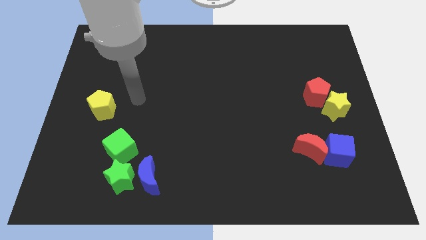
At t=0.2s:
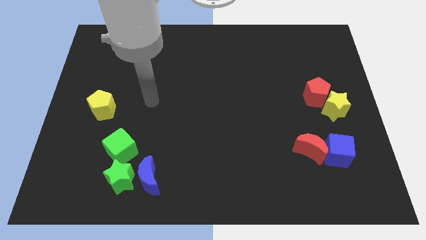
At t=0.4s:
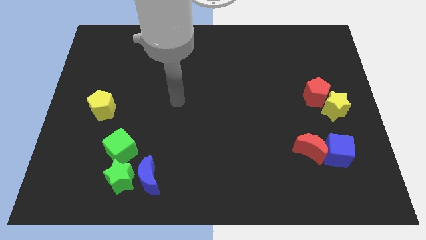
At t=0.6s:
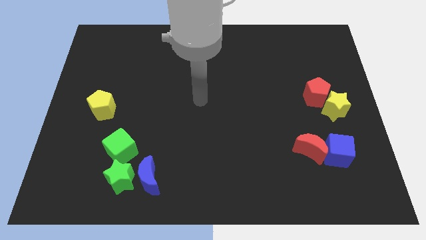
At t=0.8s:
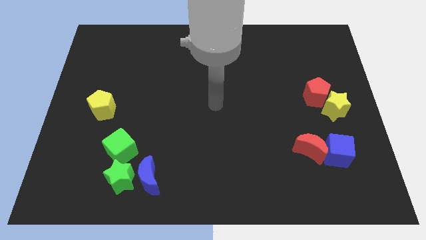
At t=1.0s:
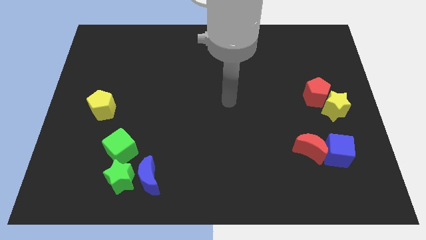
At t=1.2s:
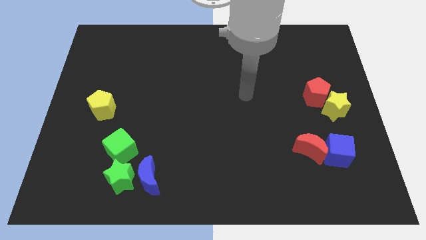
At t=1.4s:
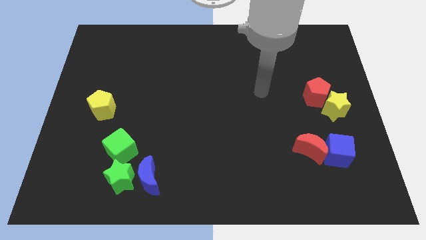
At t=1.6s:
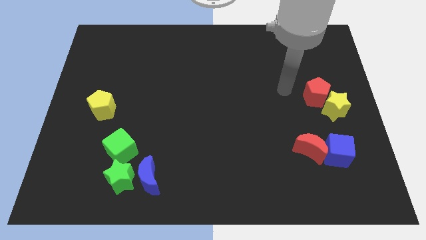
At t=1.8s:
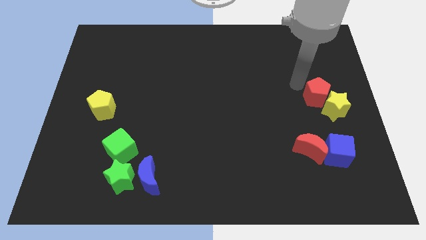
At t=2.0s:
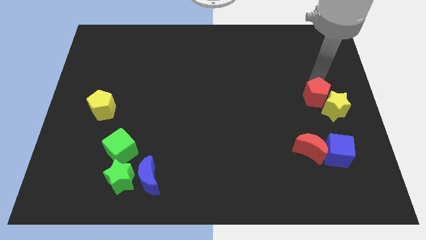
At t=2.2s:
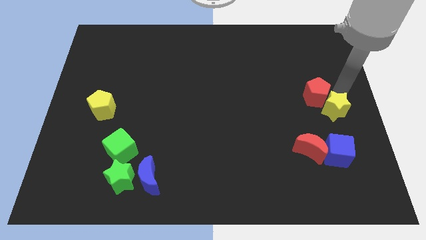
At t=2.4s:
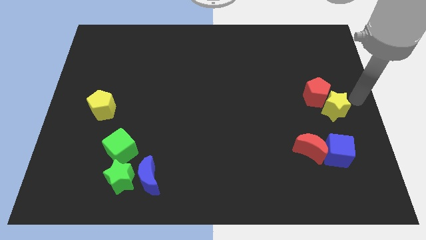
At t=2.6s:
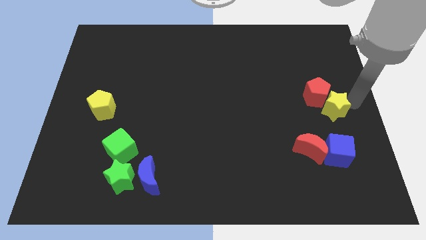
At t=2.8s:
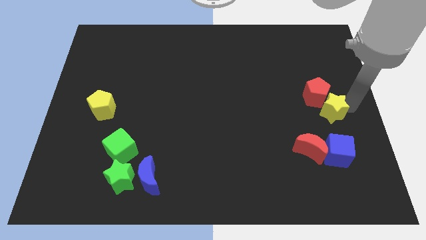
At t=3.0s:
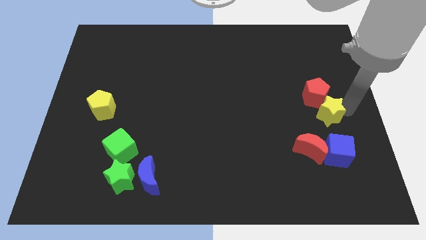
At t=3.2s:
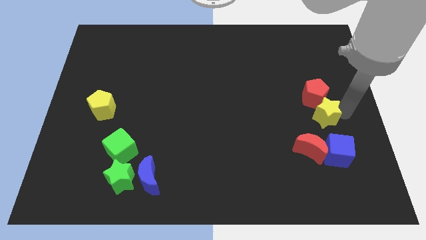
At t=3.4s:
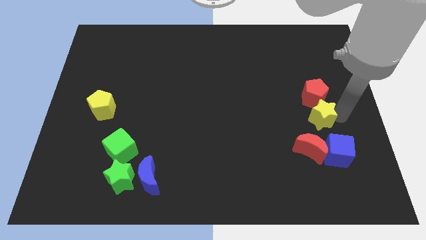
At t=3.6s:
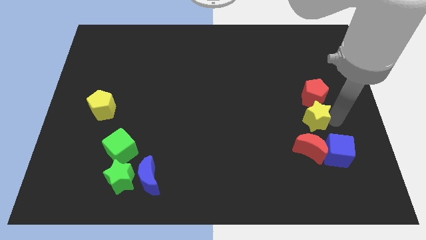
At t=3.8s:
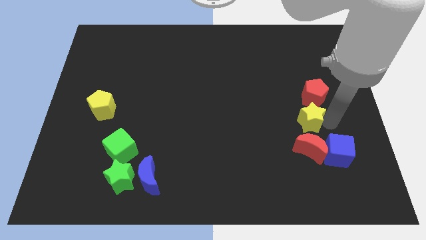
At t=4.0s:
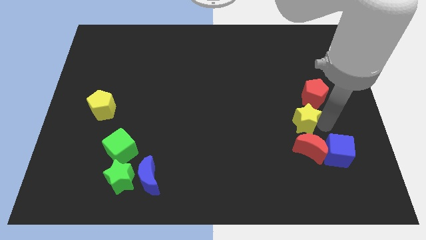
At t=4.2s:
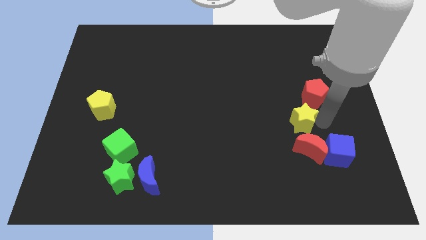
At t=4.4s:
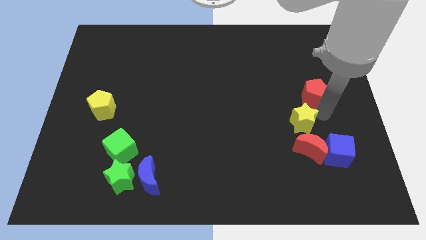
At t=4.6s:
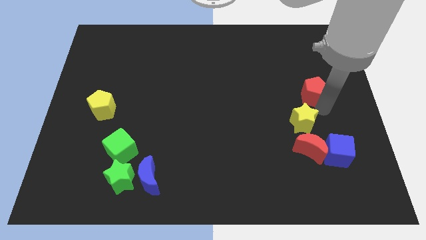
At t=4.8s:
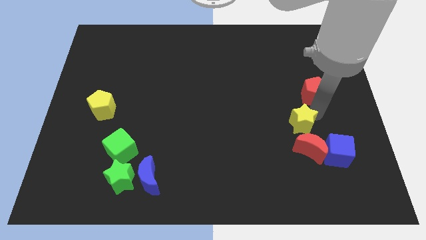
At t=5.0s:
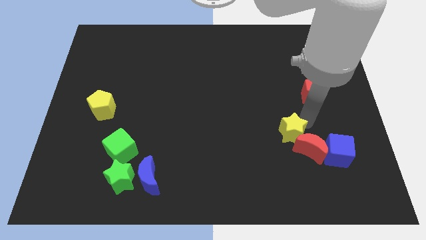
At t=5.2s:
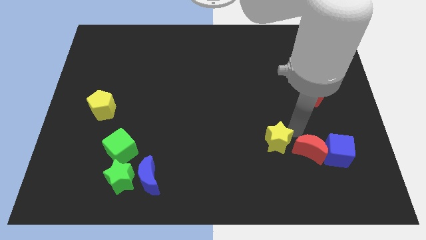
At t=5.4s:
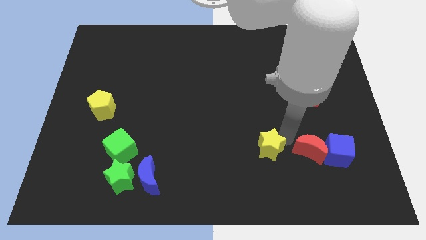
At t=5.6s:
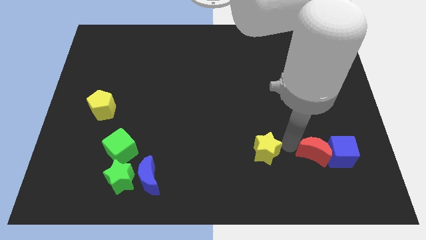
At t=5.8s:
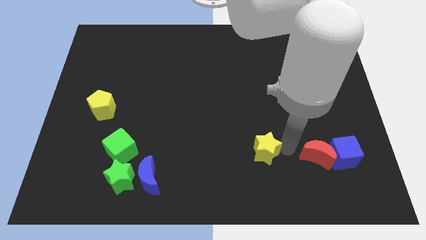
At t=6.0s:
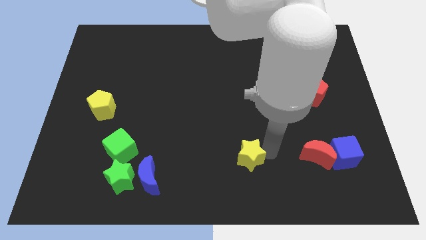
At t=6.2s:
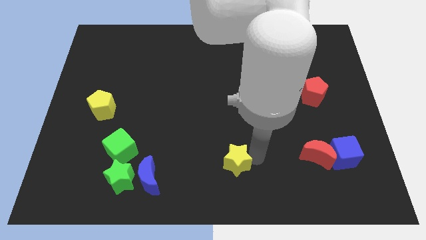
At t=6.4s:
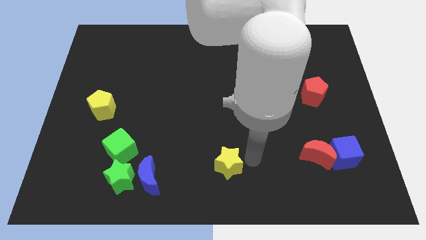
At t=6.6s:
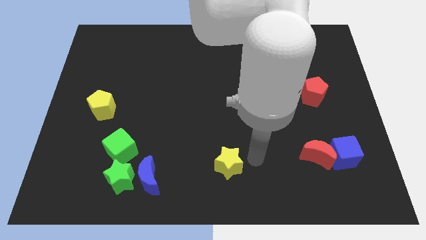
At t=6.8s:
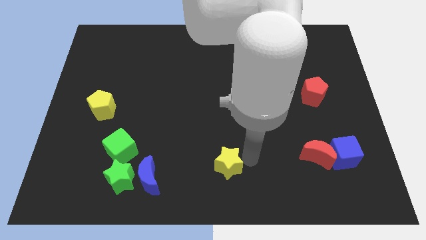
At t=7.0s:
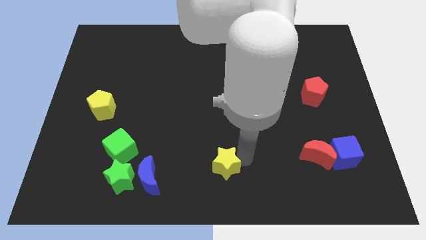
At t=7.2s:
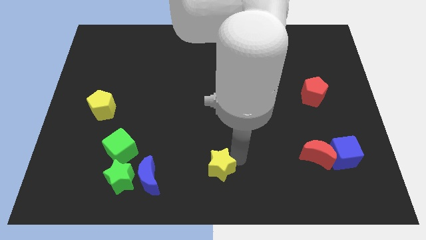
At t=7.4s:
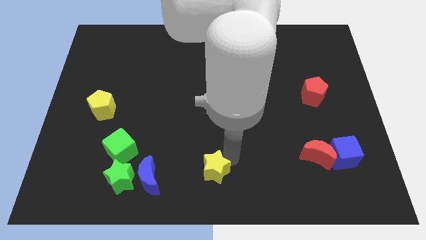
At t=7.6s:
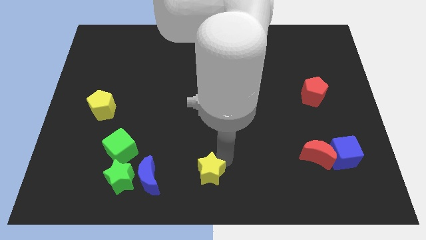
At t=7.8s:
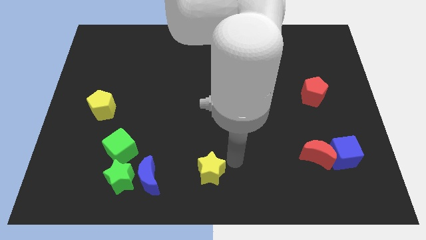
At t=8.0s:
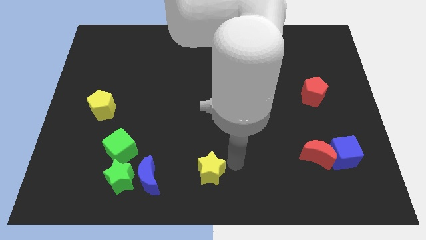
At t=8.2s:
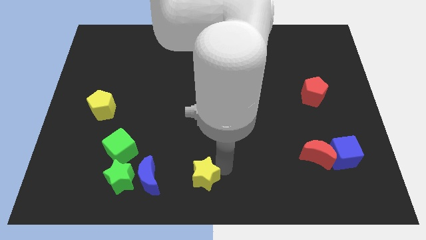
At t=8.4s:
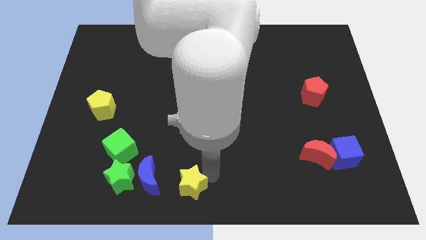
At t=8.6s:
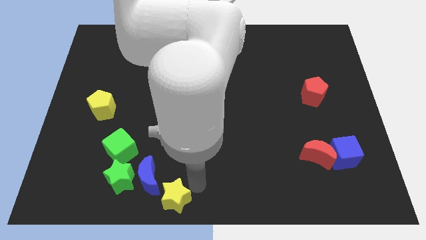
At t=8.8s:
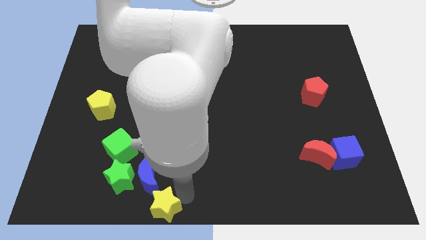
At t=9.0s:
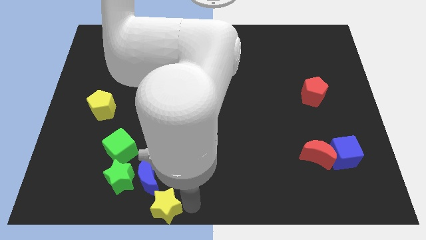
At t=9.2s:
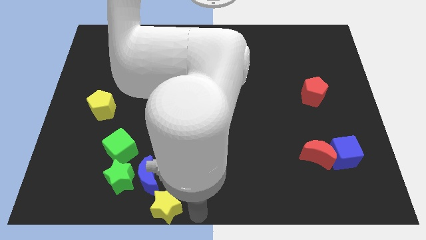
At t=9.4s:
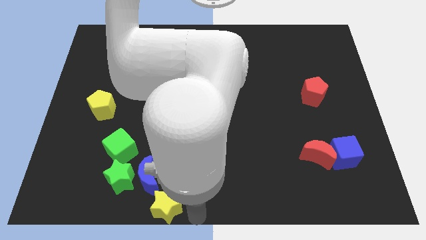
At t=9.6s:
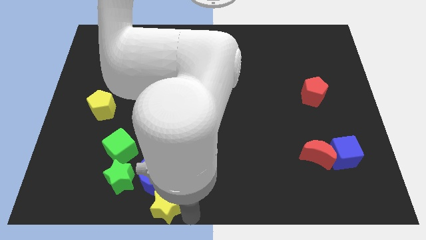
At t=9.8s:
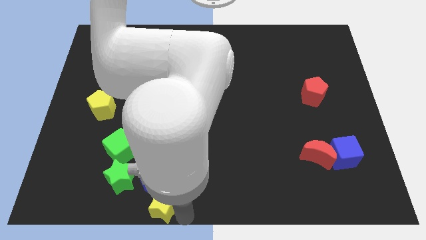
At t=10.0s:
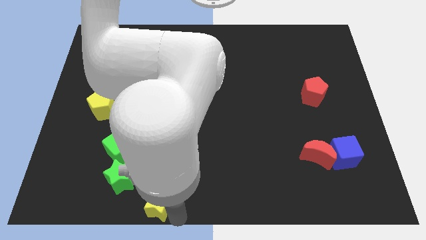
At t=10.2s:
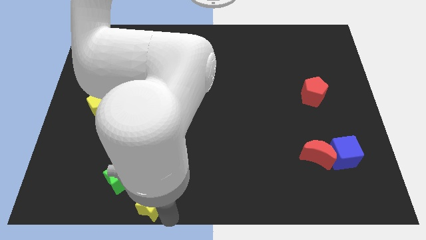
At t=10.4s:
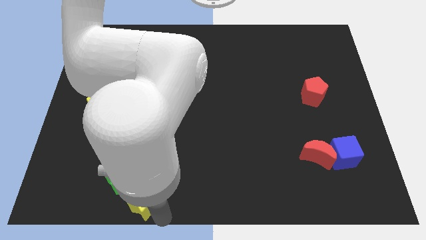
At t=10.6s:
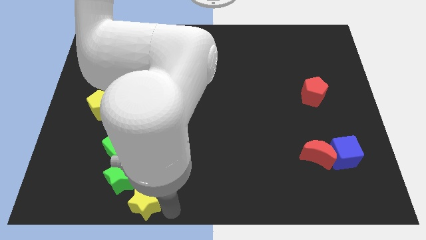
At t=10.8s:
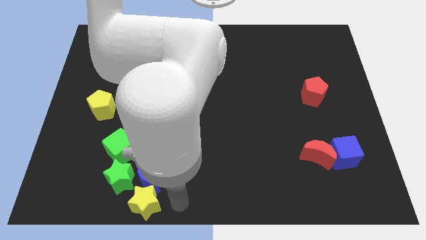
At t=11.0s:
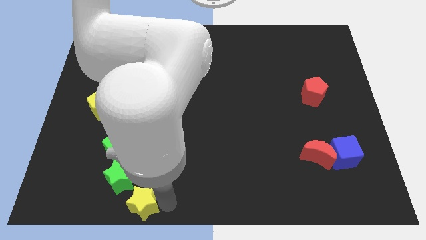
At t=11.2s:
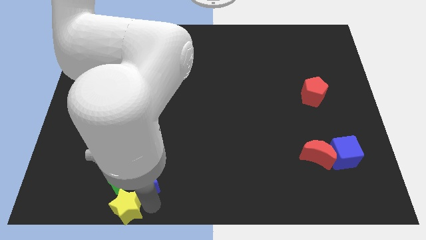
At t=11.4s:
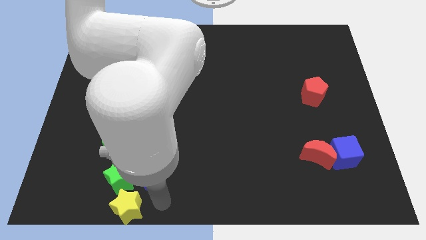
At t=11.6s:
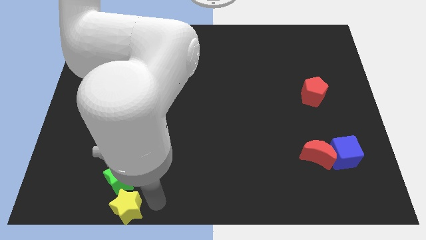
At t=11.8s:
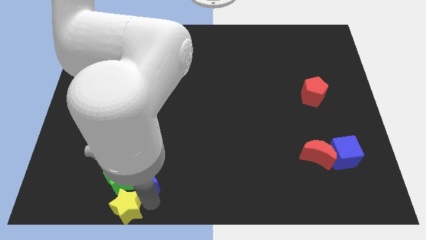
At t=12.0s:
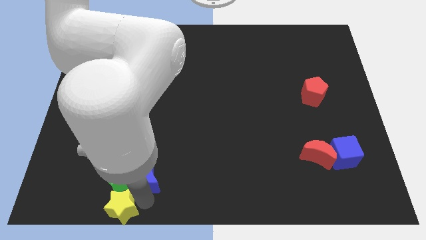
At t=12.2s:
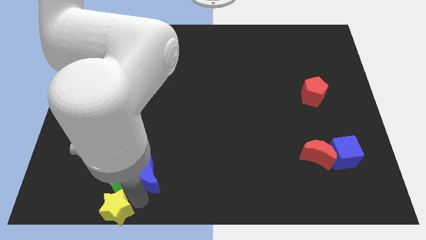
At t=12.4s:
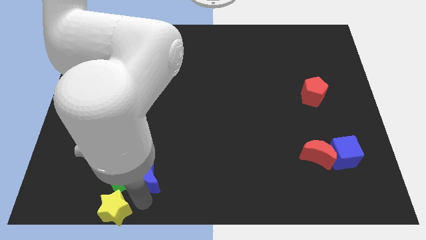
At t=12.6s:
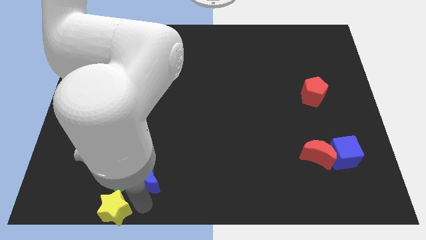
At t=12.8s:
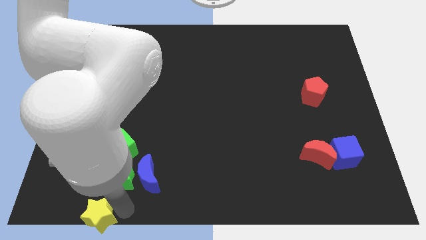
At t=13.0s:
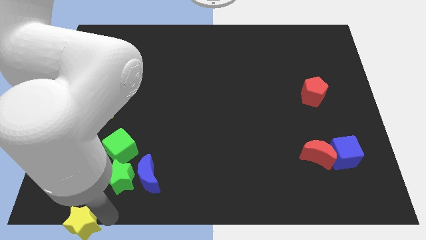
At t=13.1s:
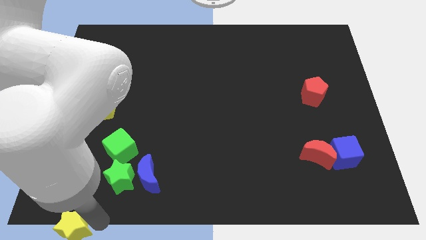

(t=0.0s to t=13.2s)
move the yellow star to the bottom left of the board

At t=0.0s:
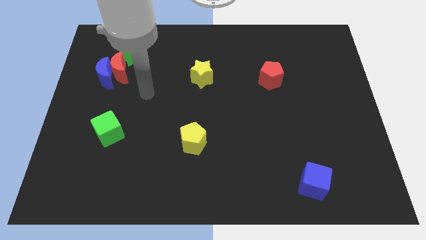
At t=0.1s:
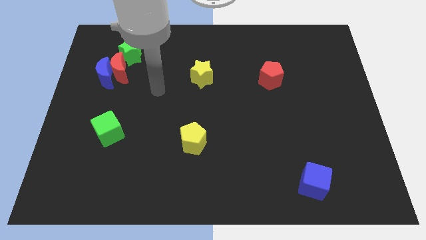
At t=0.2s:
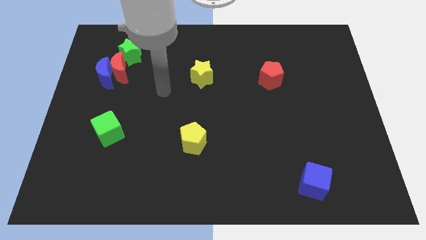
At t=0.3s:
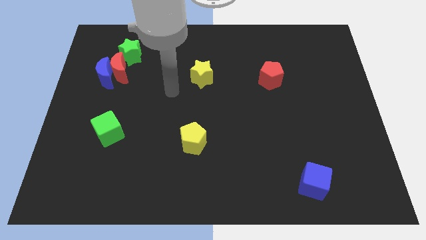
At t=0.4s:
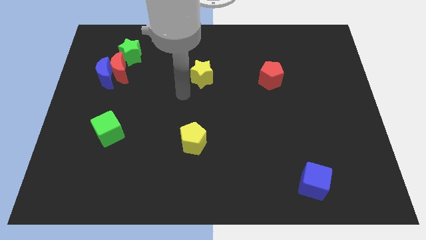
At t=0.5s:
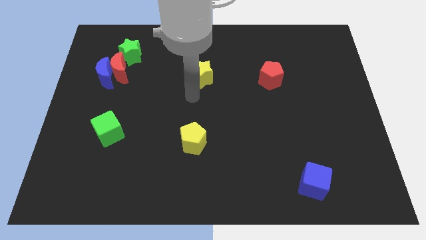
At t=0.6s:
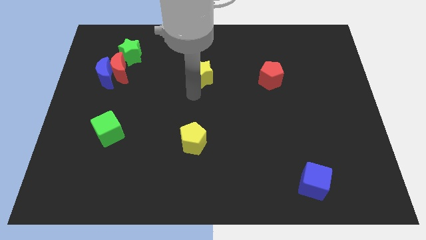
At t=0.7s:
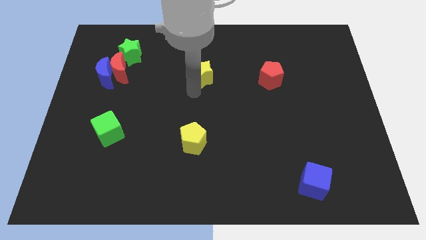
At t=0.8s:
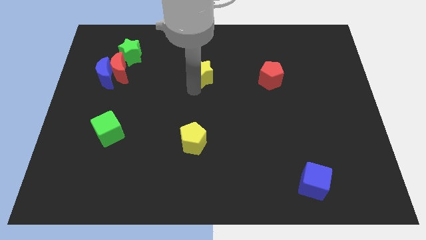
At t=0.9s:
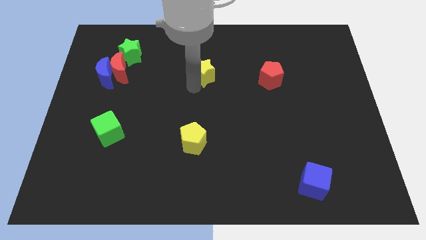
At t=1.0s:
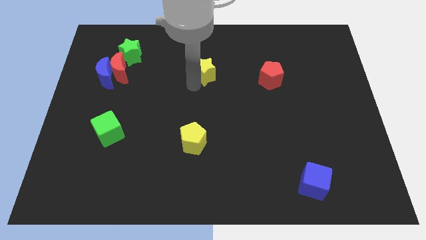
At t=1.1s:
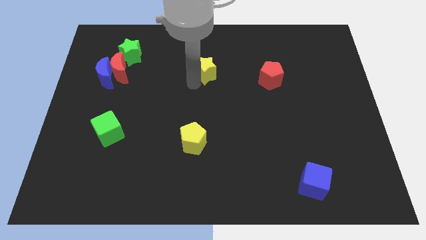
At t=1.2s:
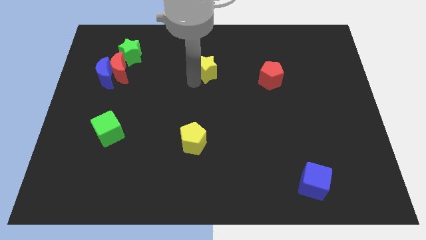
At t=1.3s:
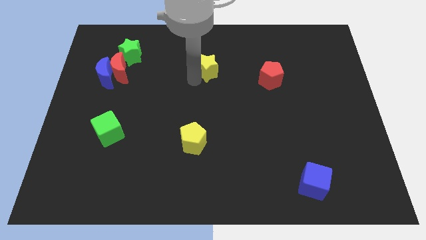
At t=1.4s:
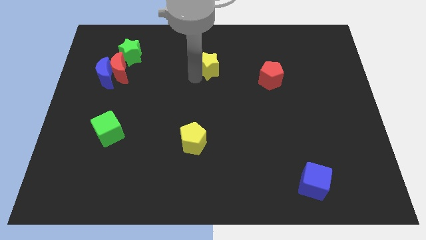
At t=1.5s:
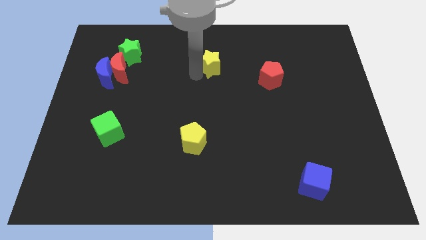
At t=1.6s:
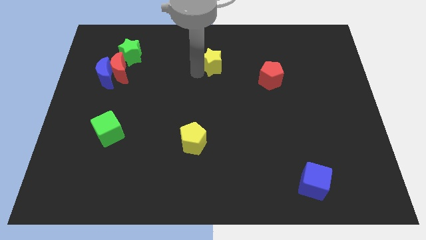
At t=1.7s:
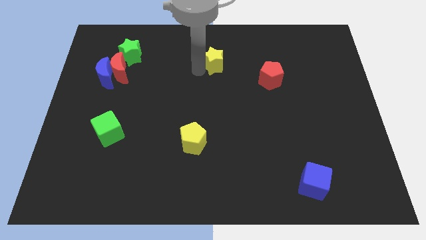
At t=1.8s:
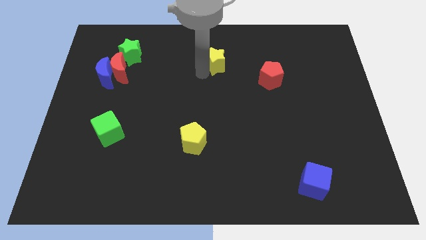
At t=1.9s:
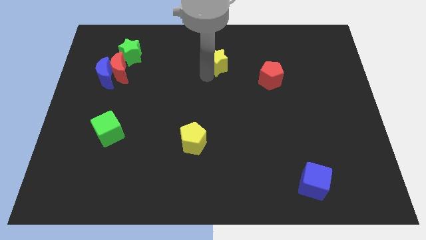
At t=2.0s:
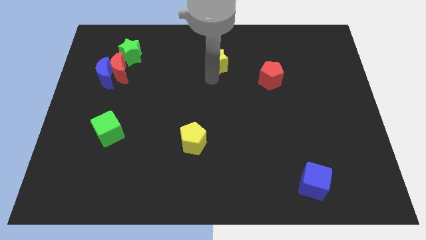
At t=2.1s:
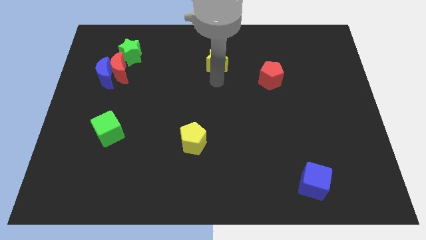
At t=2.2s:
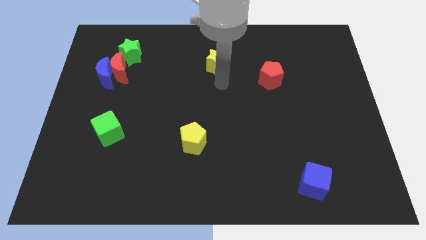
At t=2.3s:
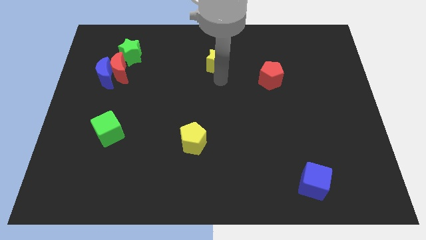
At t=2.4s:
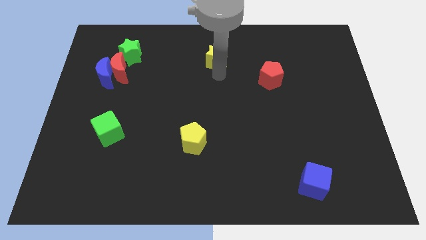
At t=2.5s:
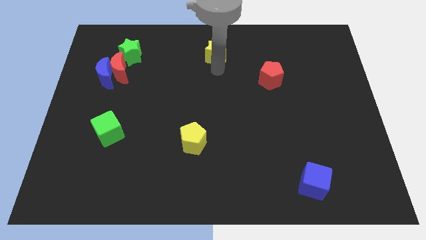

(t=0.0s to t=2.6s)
put the yellow star to the towards your base
